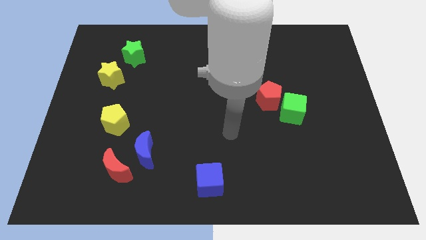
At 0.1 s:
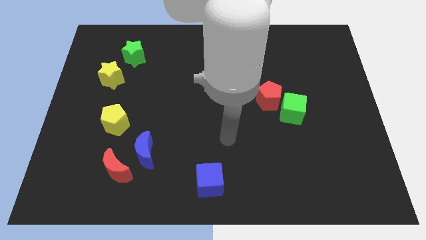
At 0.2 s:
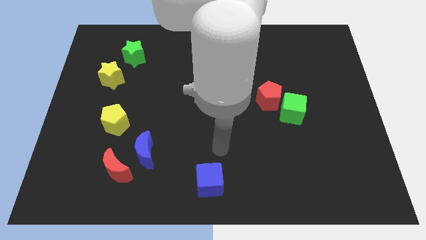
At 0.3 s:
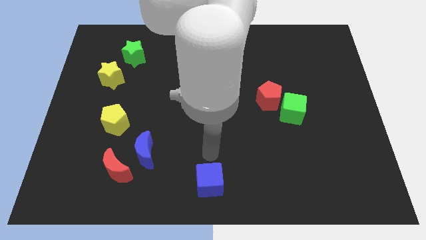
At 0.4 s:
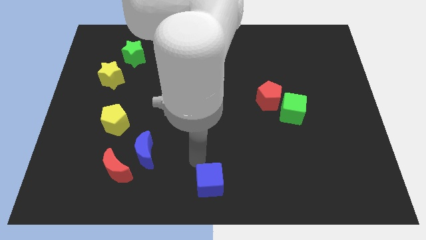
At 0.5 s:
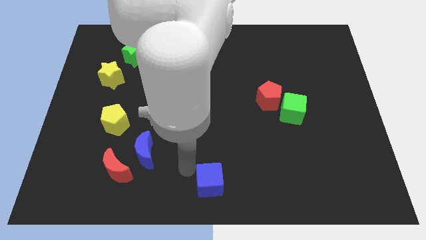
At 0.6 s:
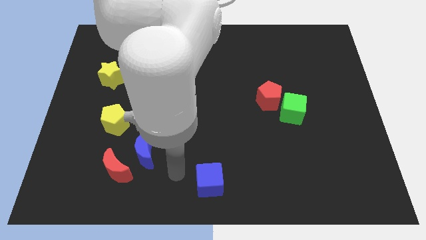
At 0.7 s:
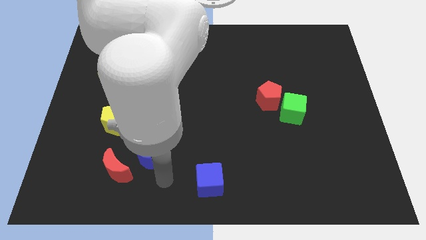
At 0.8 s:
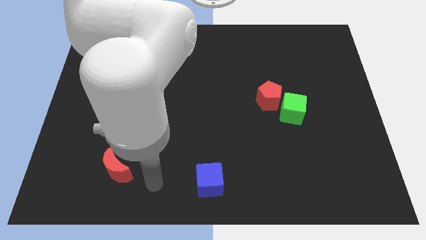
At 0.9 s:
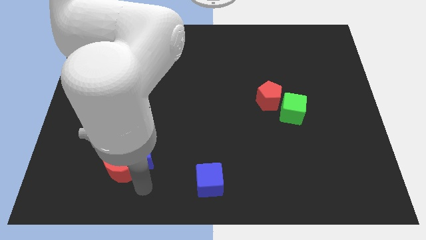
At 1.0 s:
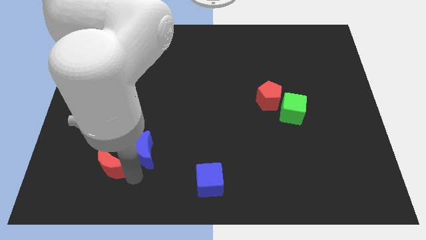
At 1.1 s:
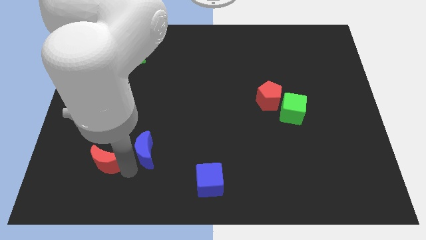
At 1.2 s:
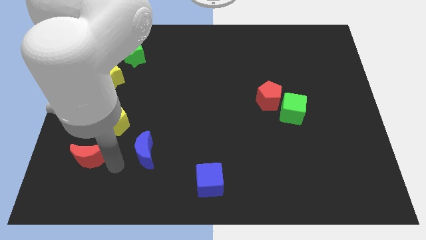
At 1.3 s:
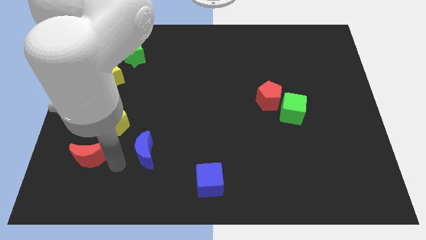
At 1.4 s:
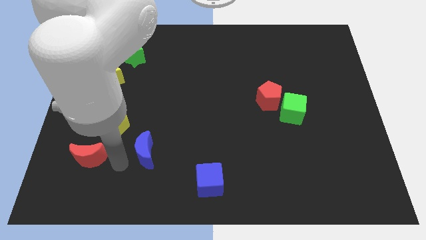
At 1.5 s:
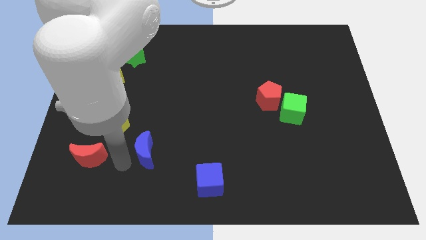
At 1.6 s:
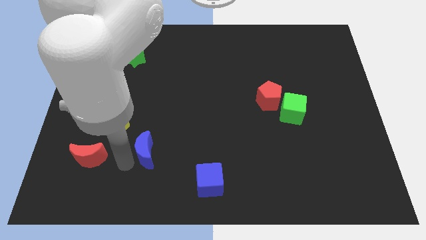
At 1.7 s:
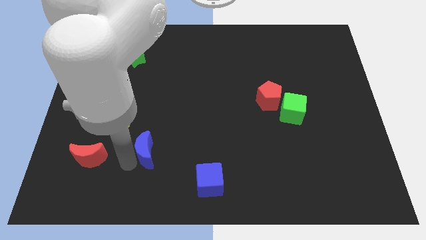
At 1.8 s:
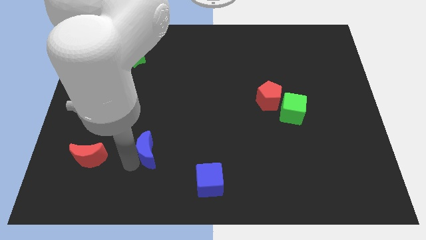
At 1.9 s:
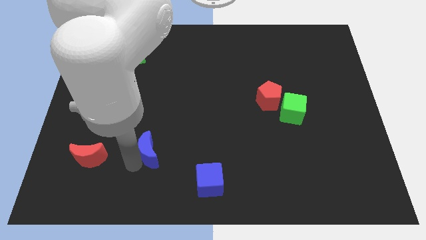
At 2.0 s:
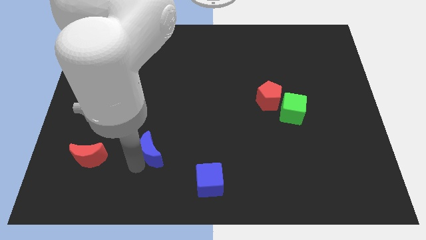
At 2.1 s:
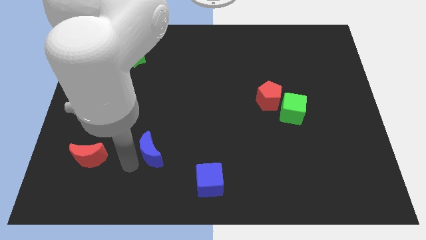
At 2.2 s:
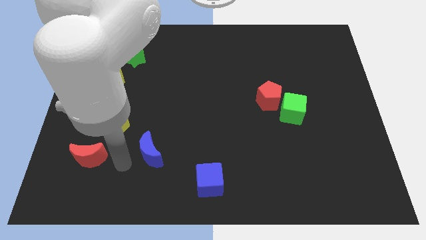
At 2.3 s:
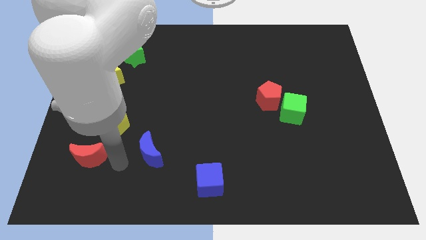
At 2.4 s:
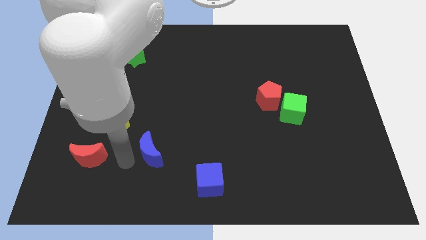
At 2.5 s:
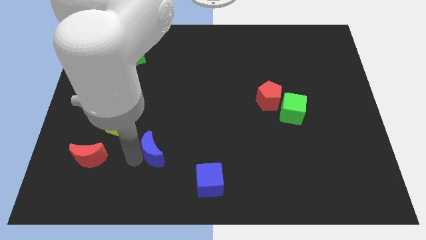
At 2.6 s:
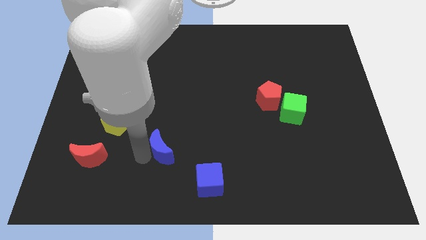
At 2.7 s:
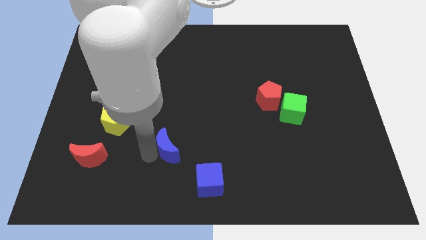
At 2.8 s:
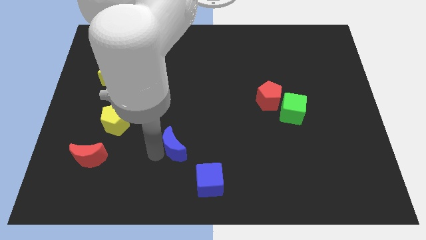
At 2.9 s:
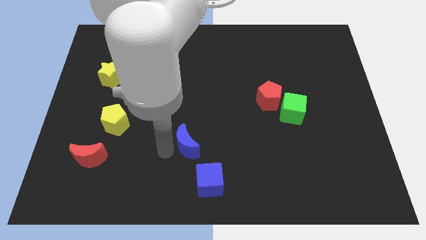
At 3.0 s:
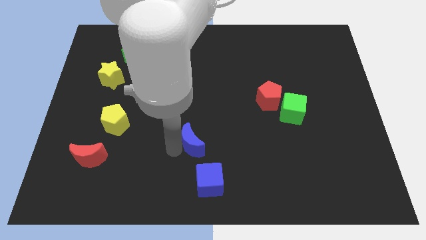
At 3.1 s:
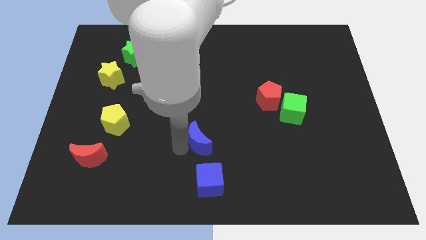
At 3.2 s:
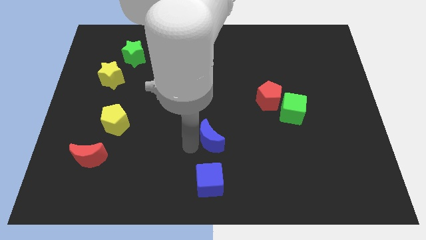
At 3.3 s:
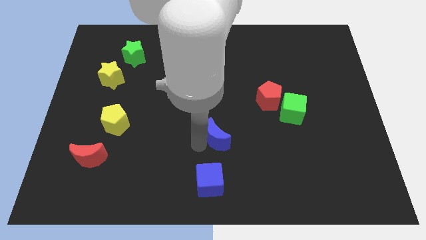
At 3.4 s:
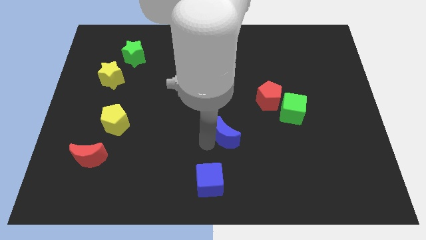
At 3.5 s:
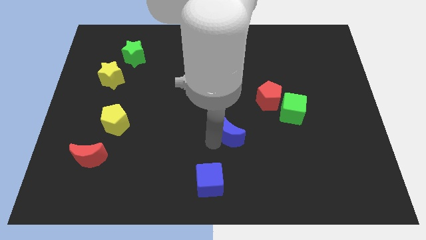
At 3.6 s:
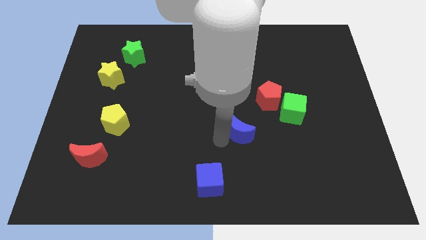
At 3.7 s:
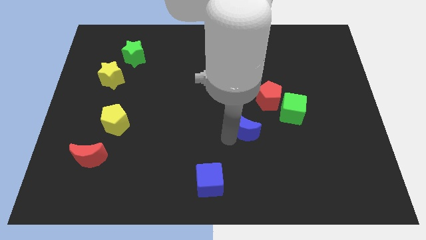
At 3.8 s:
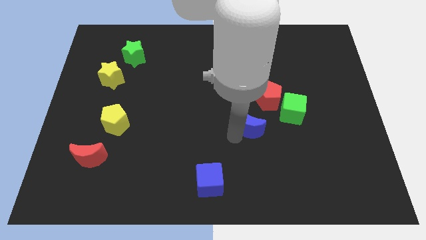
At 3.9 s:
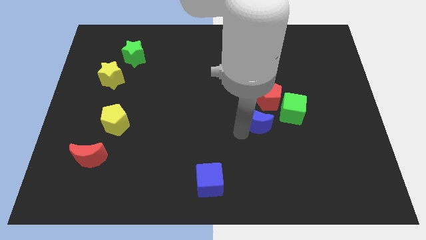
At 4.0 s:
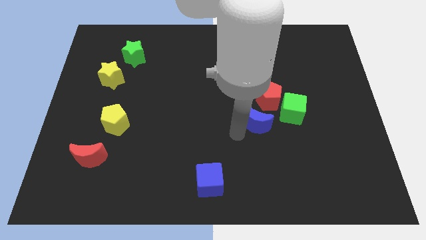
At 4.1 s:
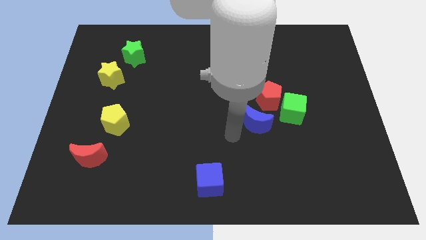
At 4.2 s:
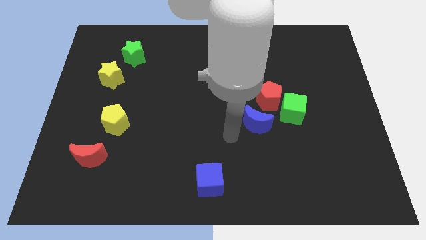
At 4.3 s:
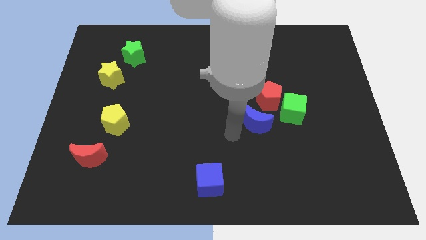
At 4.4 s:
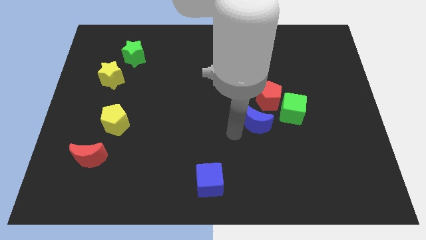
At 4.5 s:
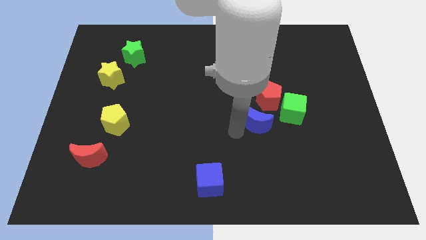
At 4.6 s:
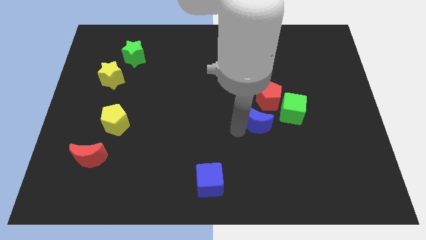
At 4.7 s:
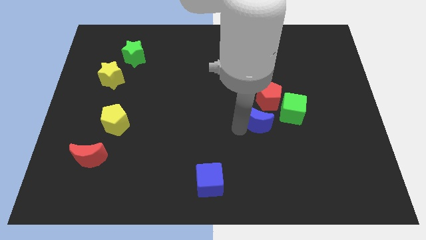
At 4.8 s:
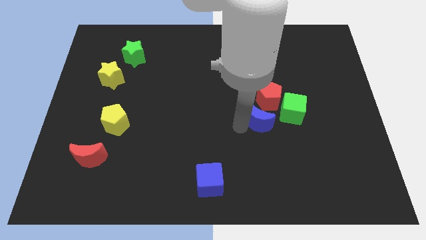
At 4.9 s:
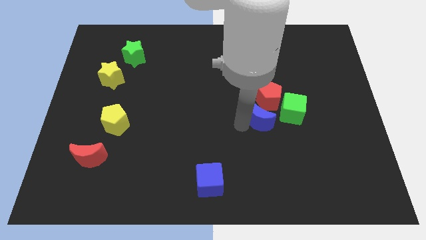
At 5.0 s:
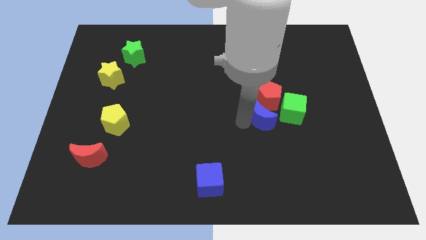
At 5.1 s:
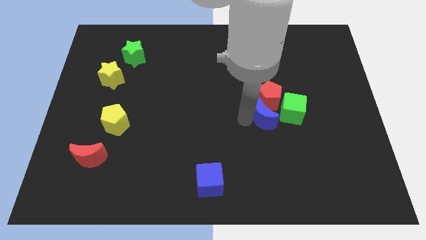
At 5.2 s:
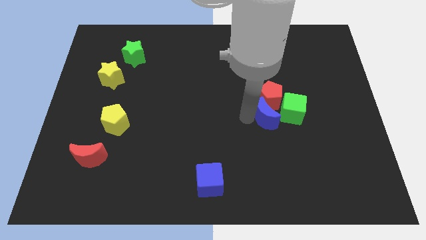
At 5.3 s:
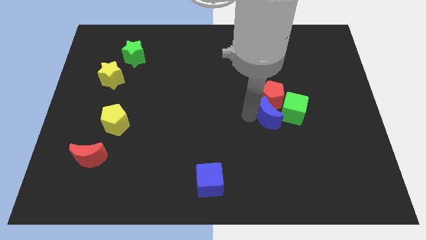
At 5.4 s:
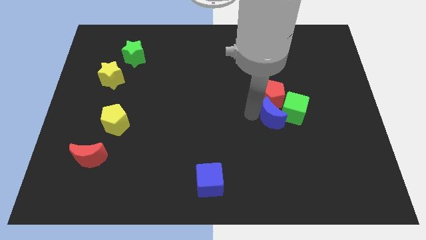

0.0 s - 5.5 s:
move the blue moon next to the green cube

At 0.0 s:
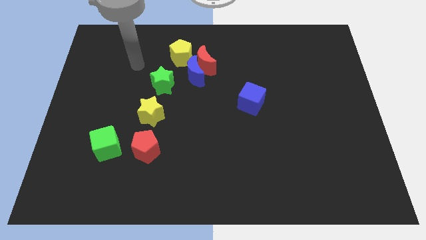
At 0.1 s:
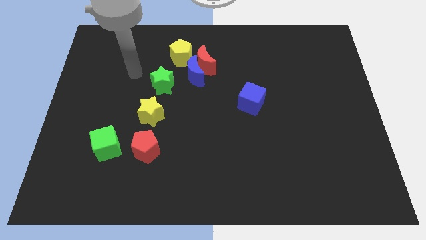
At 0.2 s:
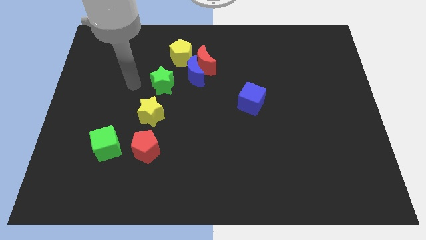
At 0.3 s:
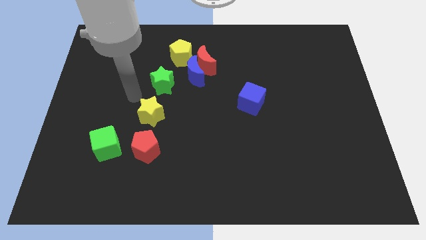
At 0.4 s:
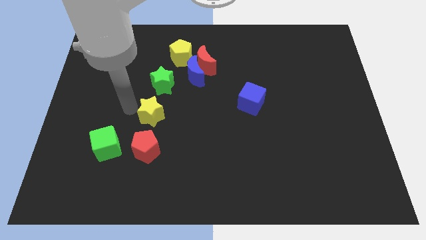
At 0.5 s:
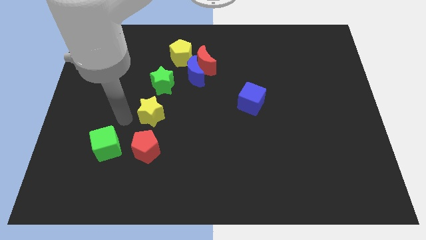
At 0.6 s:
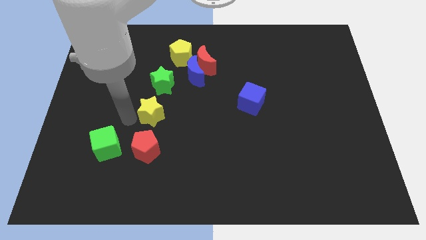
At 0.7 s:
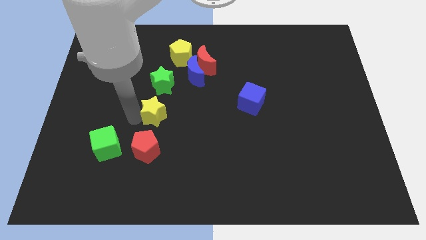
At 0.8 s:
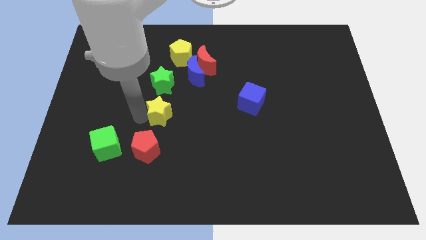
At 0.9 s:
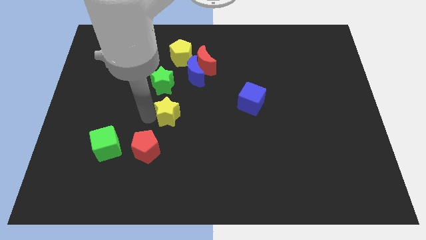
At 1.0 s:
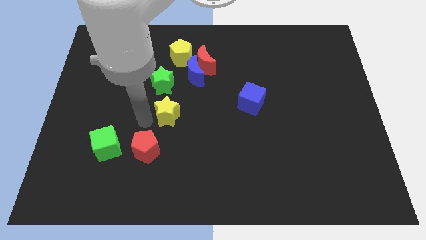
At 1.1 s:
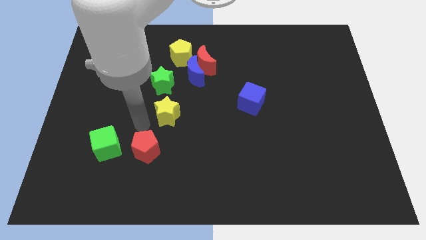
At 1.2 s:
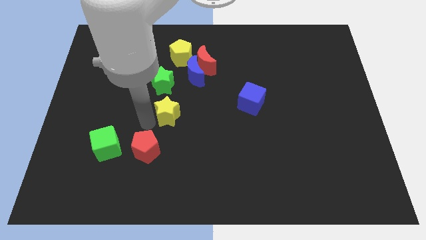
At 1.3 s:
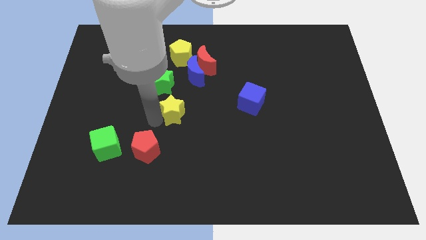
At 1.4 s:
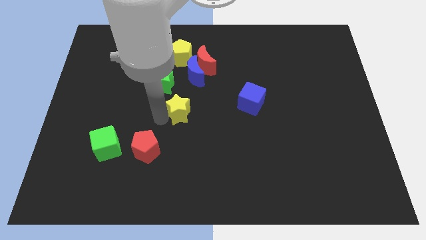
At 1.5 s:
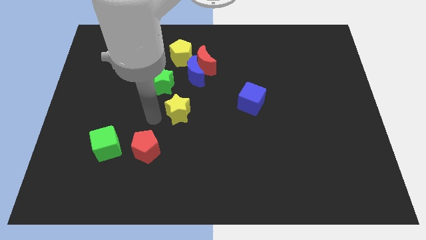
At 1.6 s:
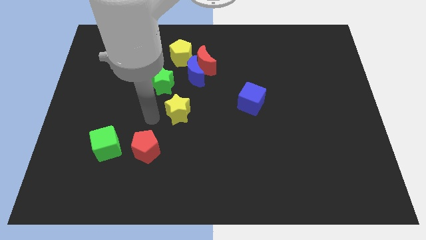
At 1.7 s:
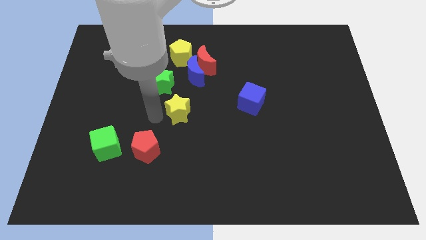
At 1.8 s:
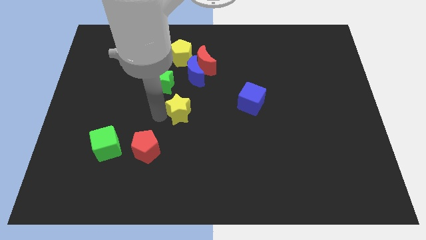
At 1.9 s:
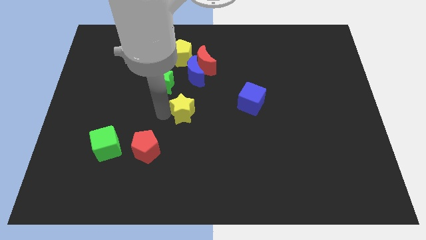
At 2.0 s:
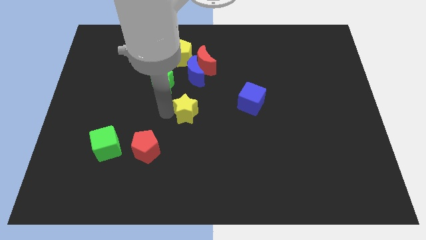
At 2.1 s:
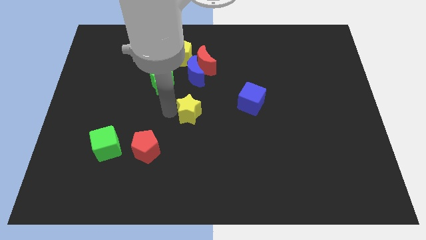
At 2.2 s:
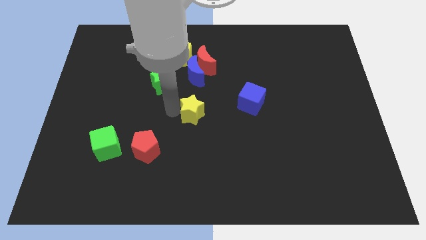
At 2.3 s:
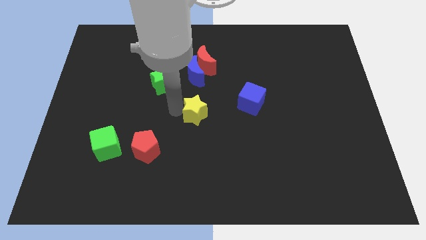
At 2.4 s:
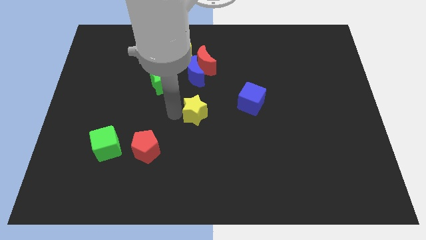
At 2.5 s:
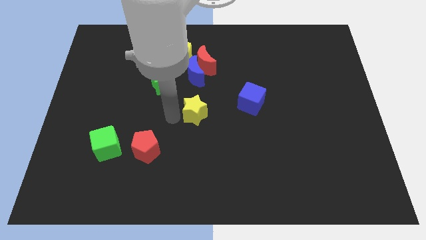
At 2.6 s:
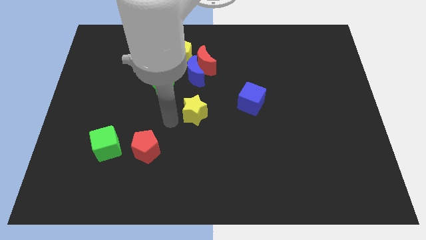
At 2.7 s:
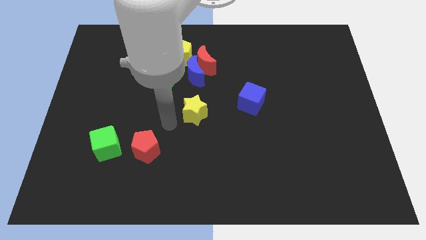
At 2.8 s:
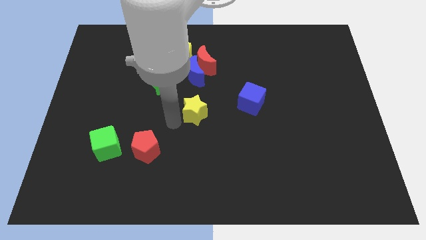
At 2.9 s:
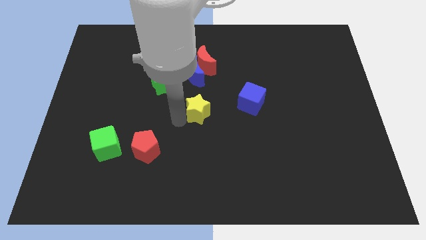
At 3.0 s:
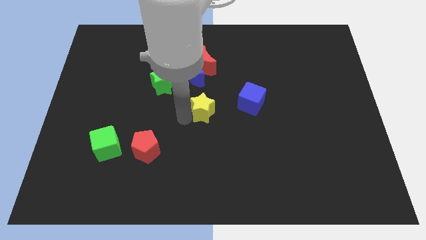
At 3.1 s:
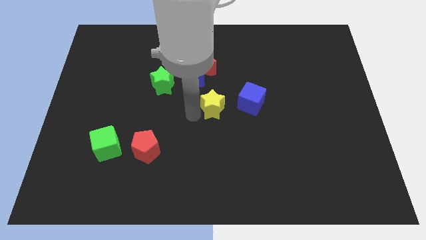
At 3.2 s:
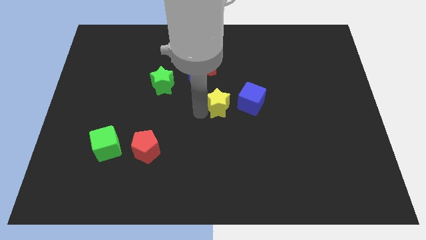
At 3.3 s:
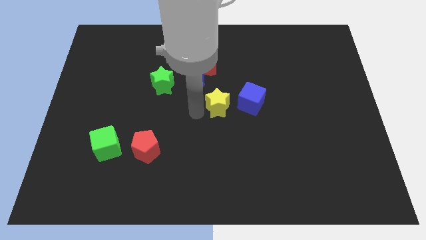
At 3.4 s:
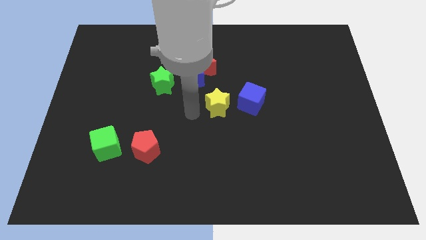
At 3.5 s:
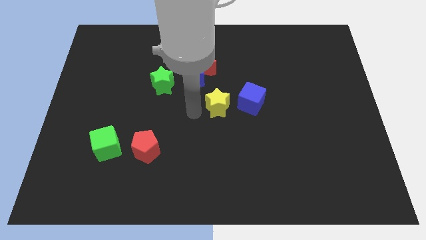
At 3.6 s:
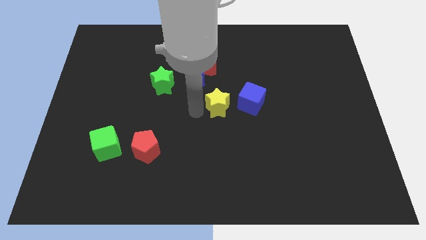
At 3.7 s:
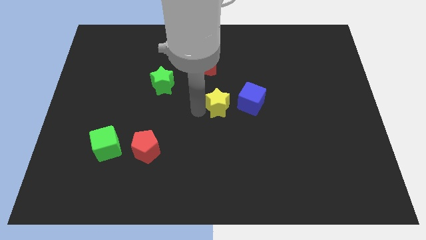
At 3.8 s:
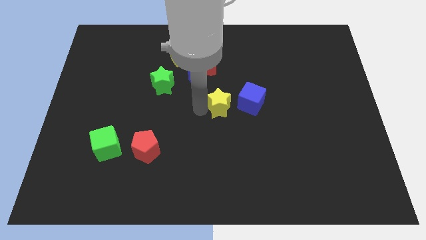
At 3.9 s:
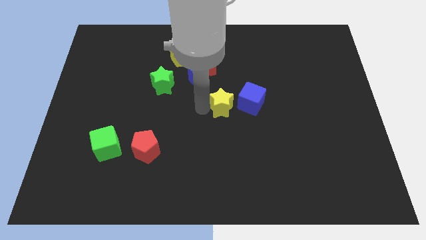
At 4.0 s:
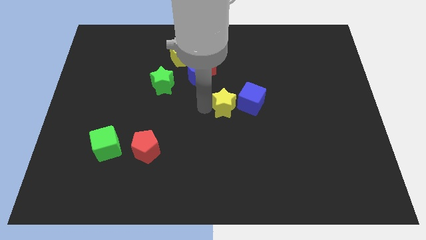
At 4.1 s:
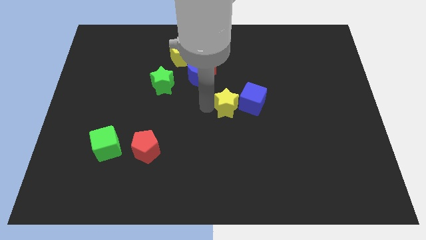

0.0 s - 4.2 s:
slide the yellow star close to the blue cube
